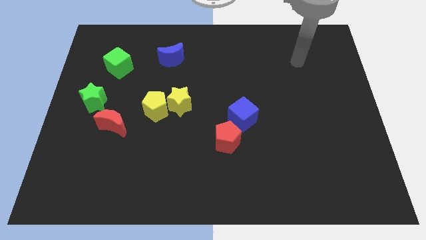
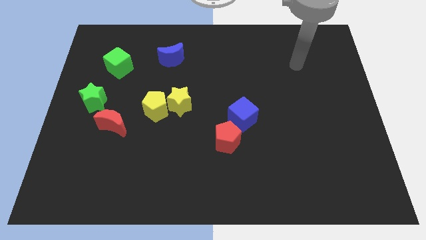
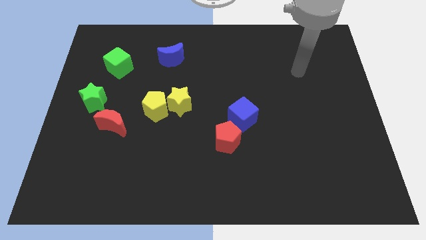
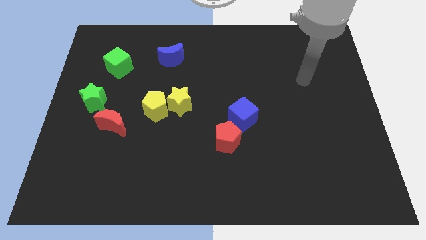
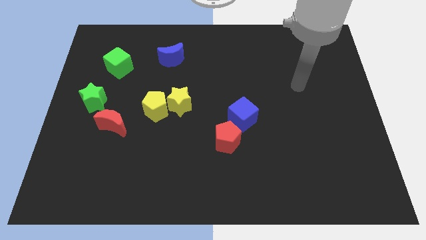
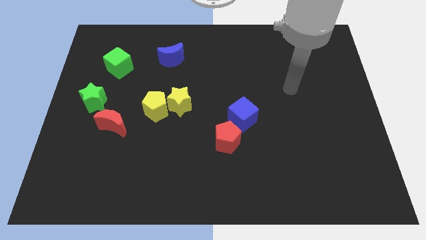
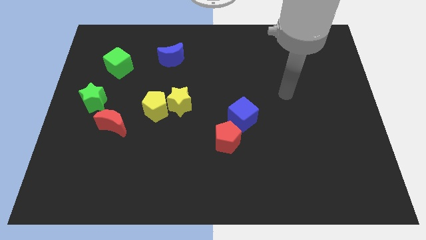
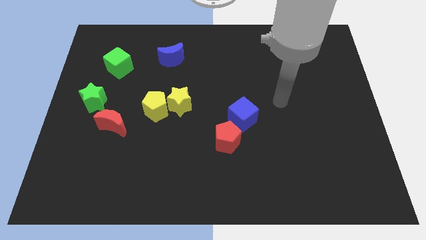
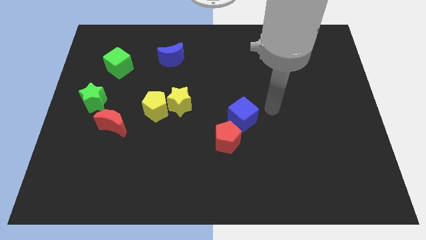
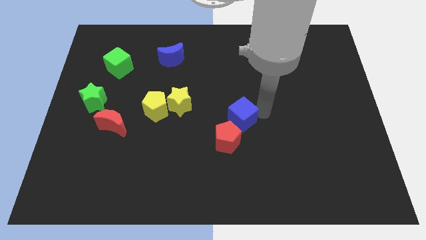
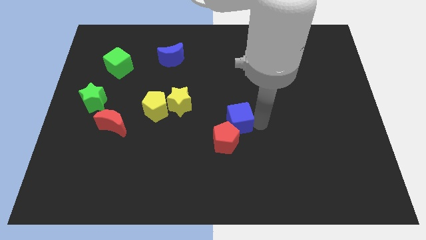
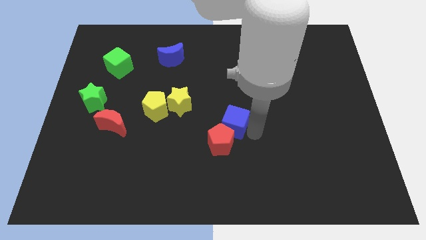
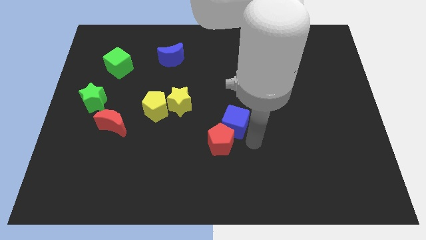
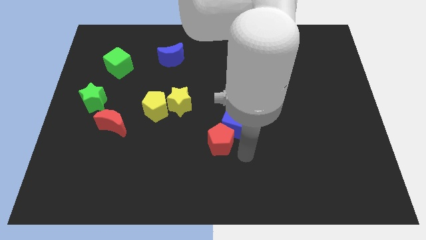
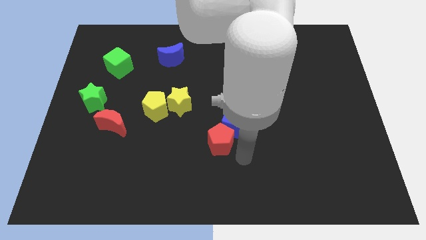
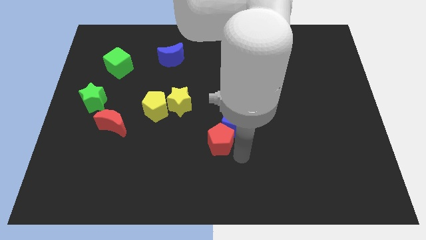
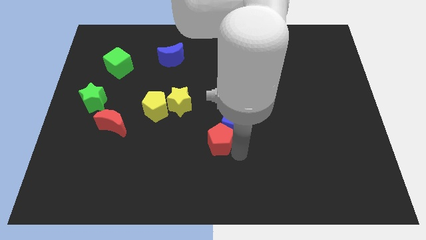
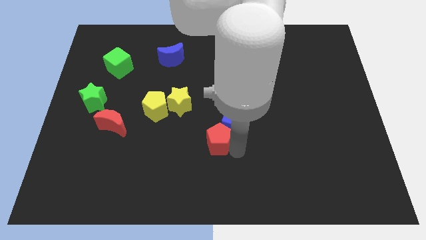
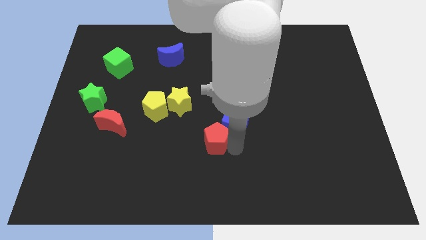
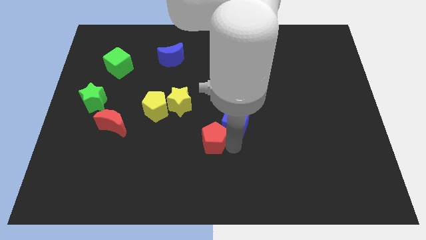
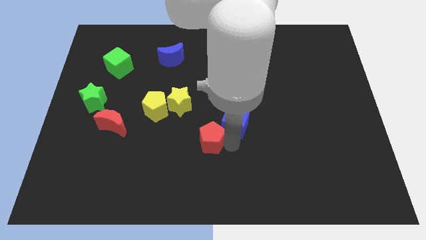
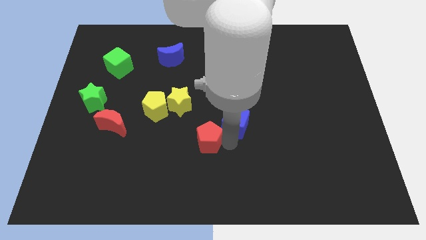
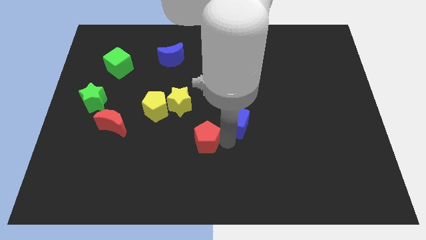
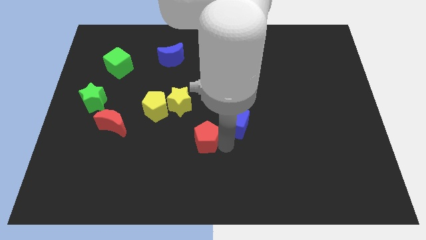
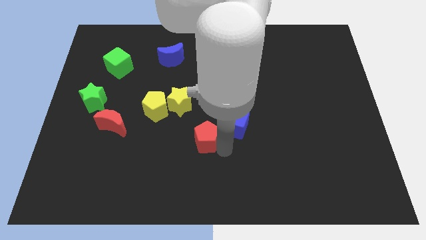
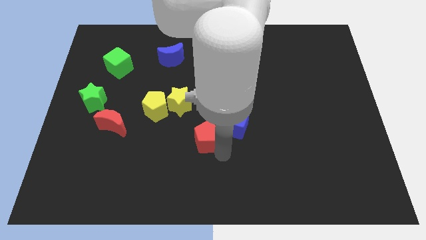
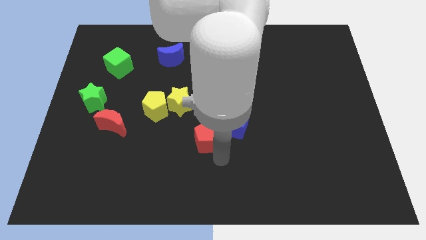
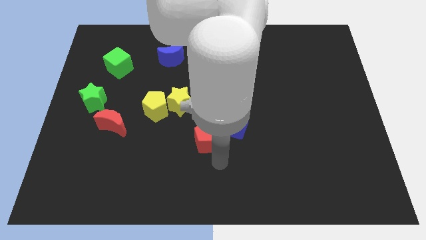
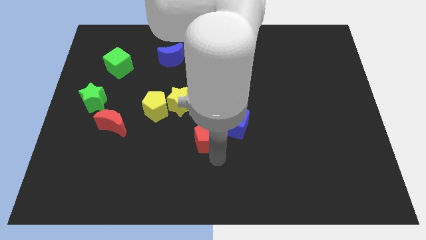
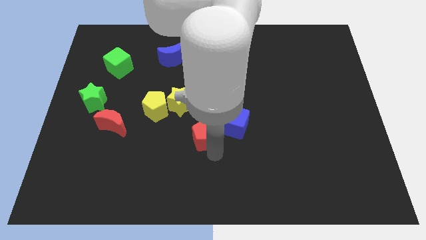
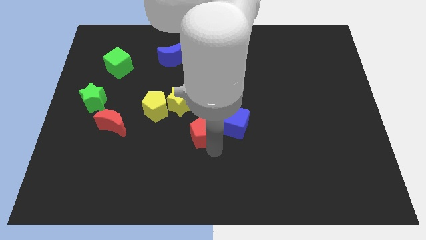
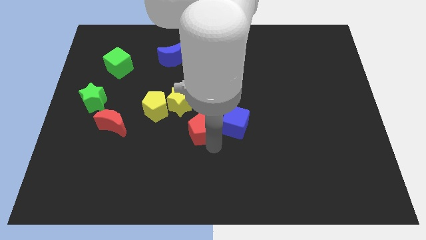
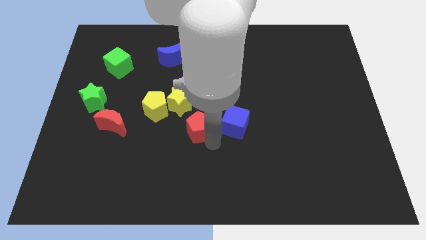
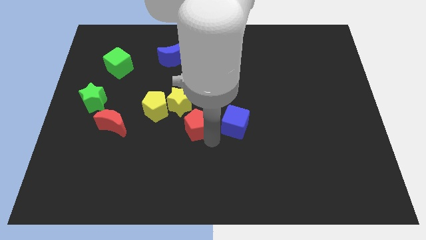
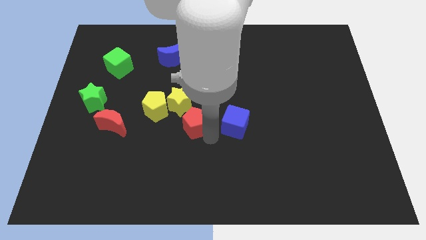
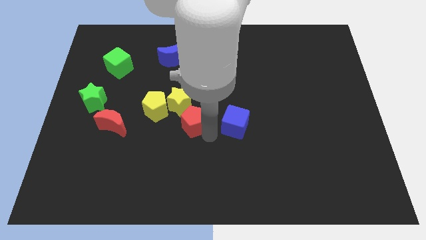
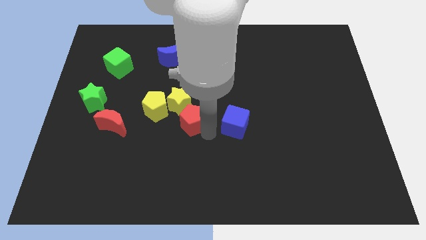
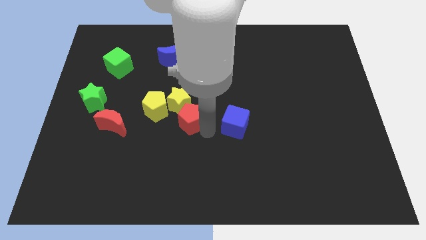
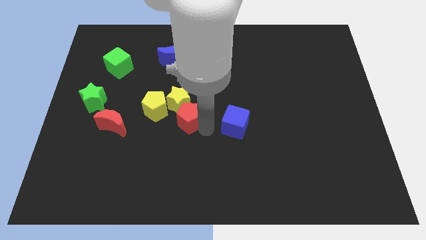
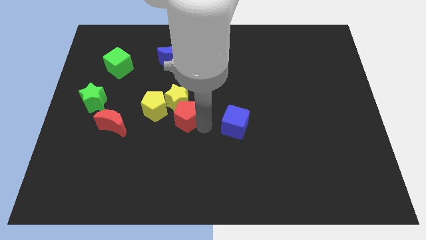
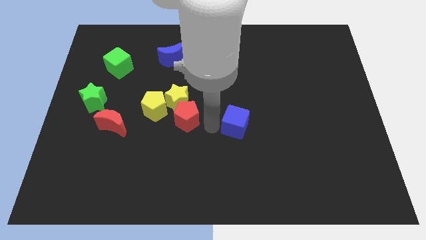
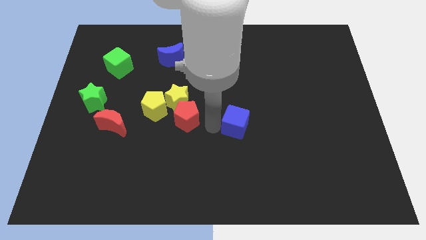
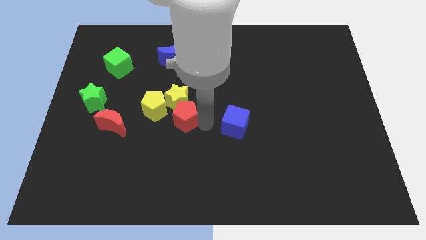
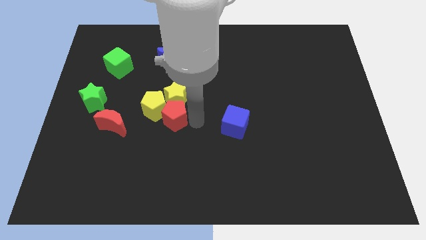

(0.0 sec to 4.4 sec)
move the red pentagon to the yellow pentagon

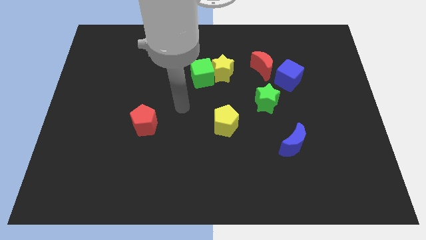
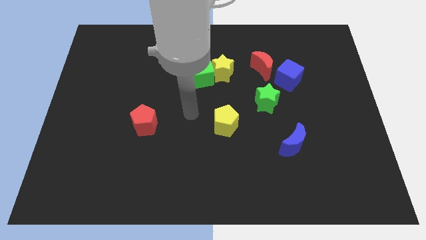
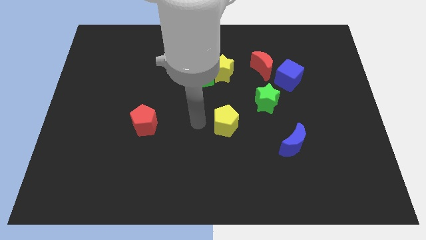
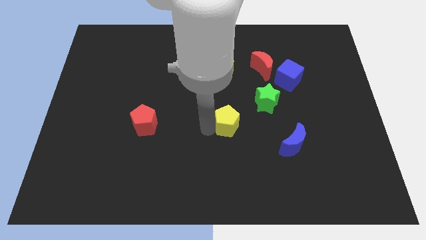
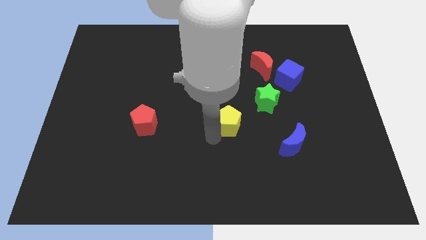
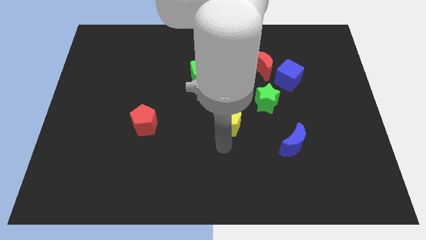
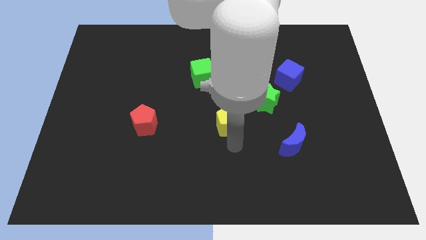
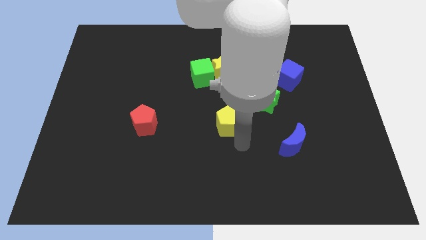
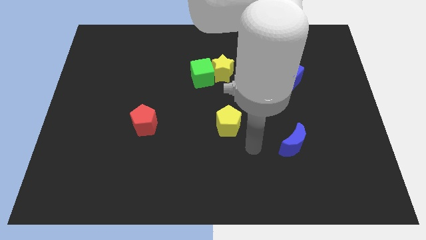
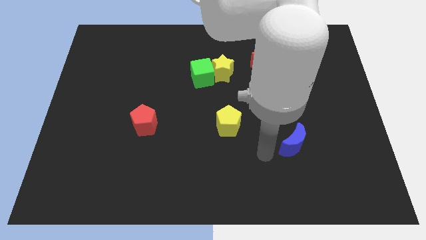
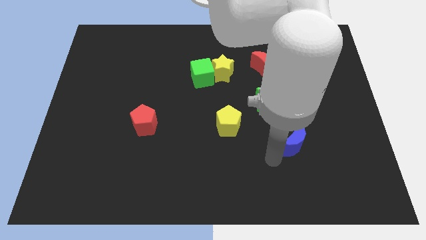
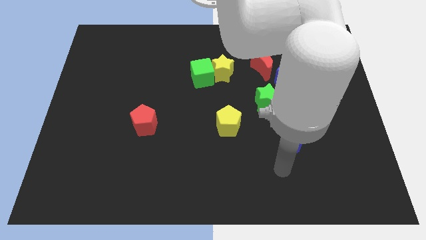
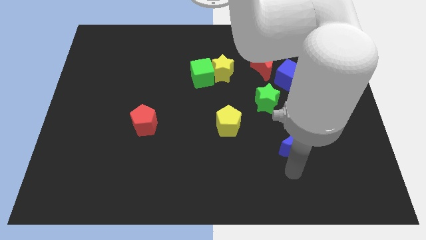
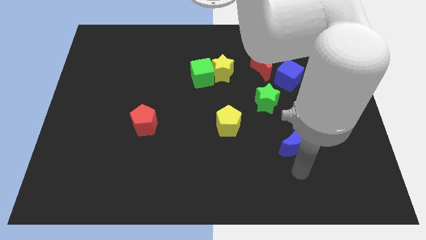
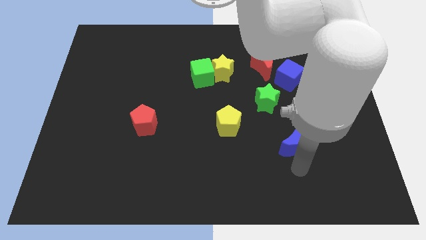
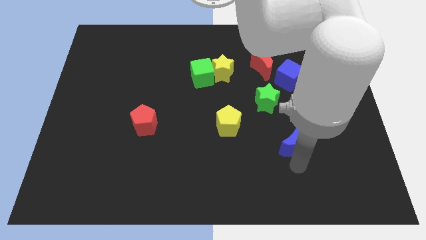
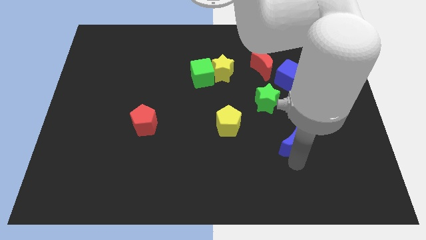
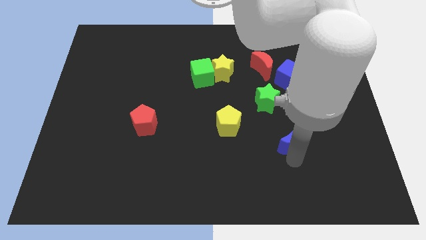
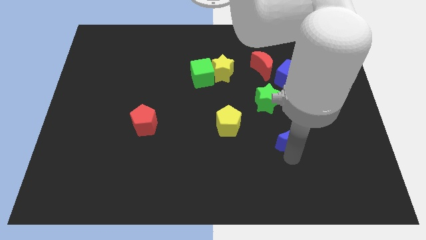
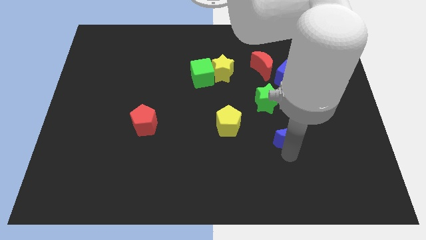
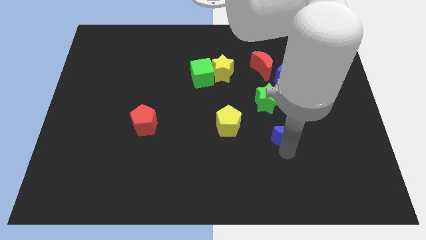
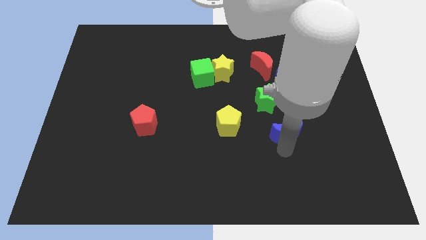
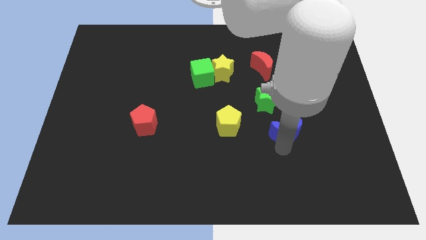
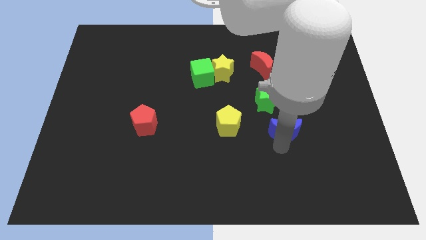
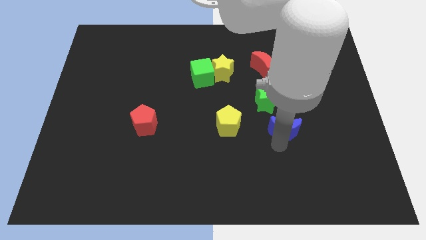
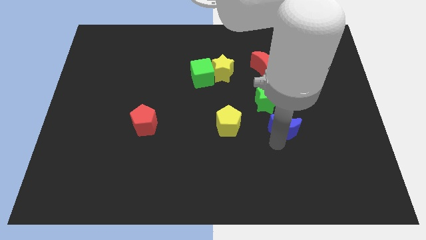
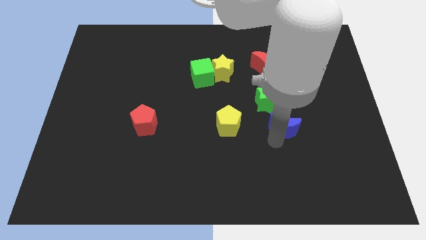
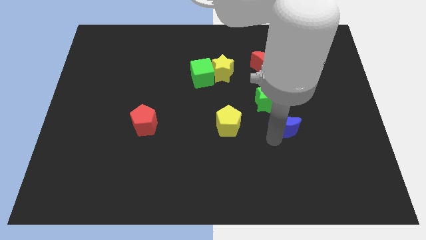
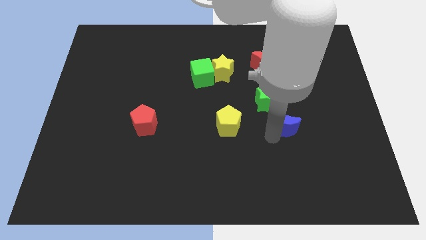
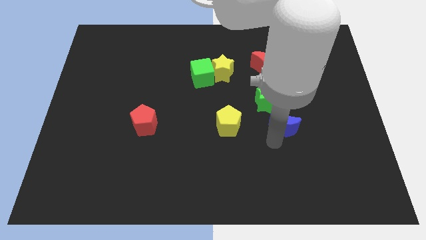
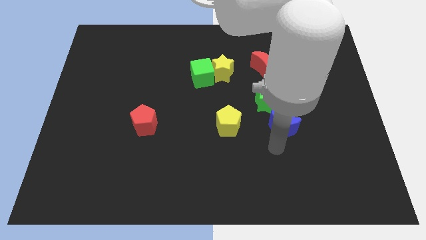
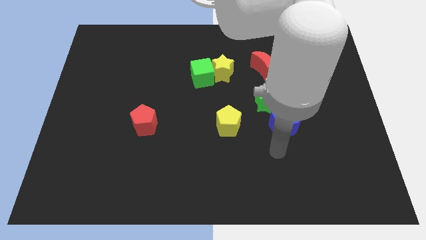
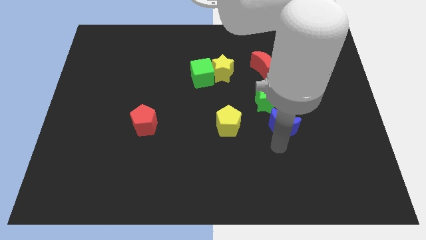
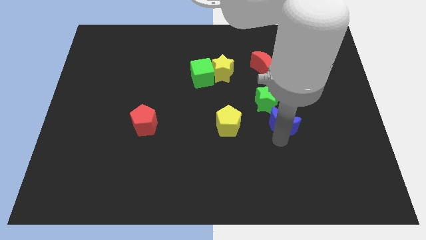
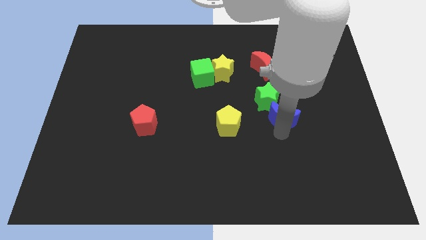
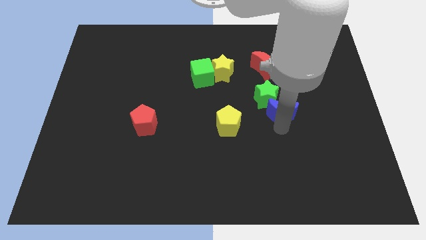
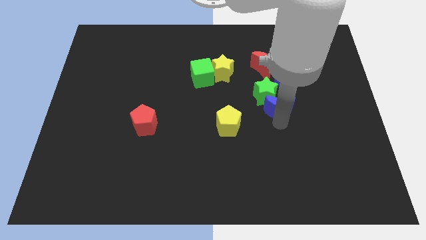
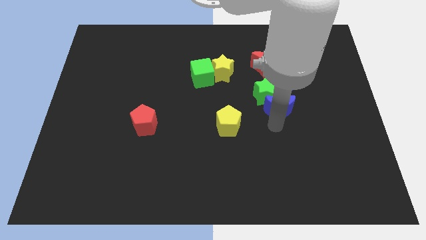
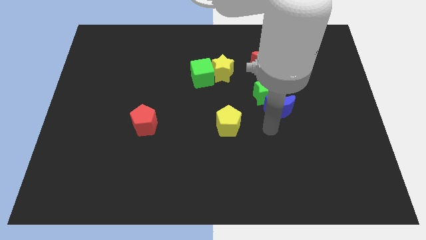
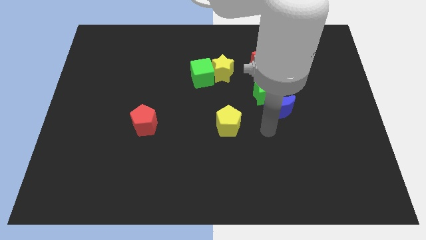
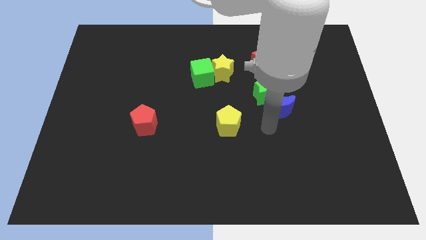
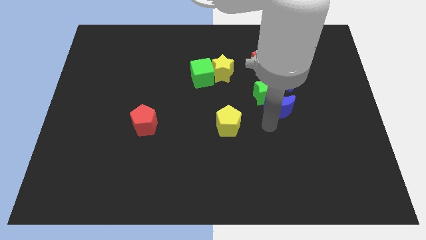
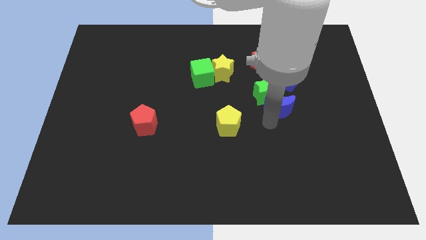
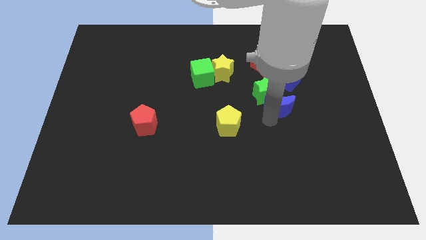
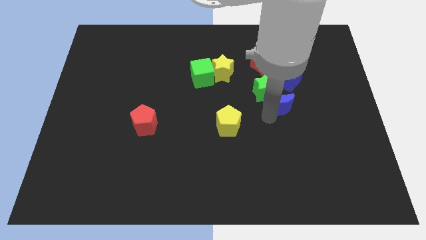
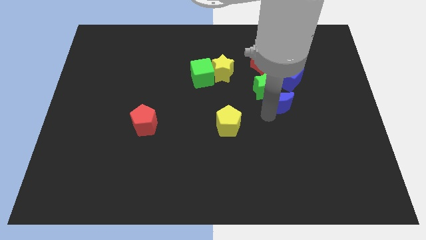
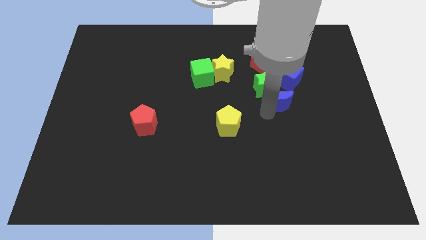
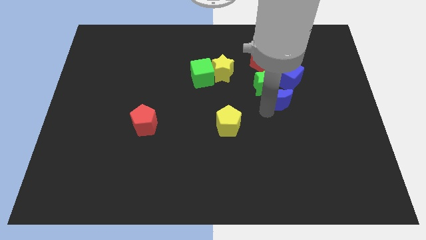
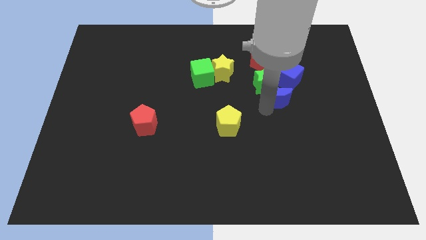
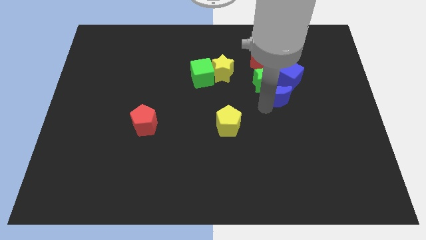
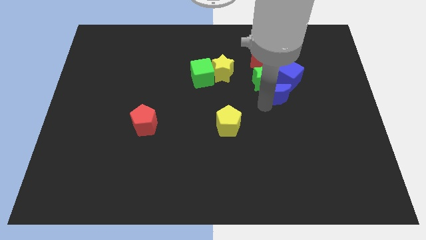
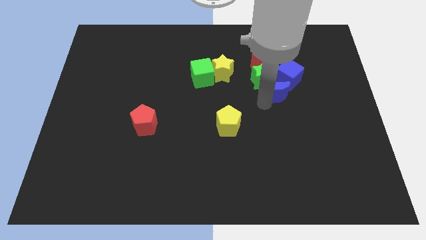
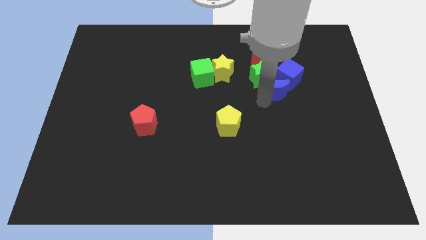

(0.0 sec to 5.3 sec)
push the blue moon to the blue cube
